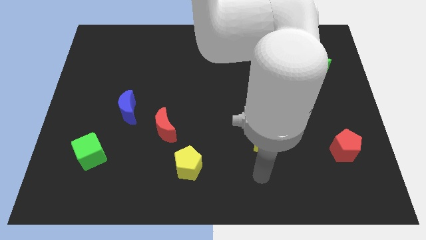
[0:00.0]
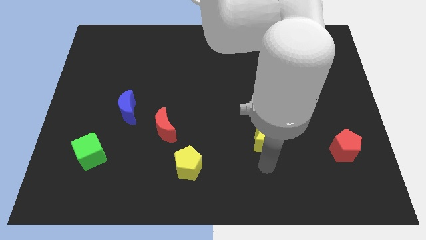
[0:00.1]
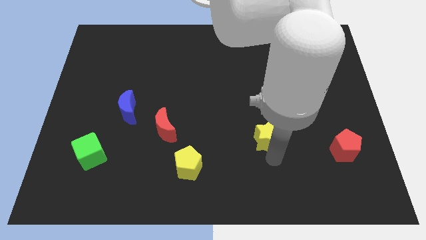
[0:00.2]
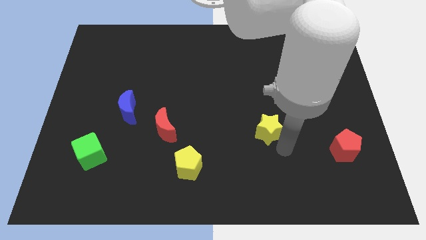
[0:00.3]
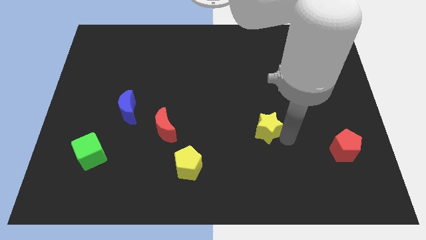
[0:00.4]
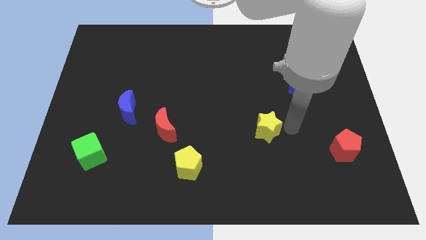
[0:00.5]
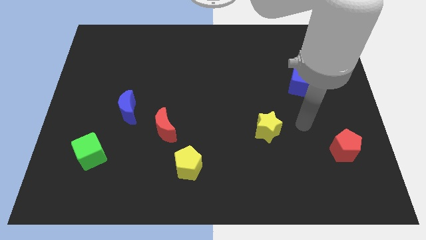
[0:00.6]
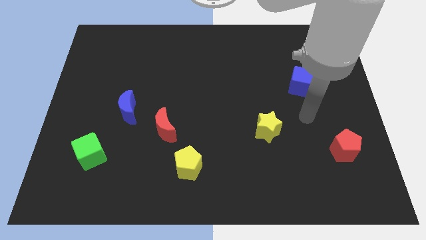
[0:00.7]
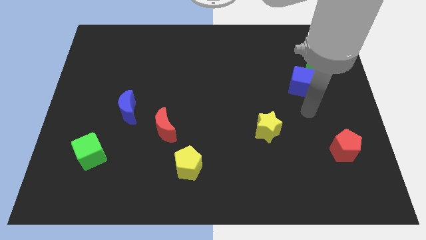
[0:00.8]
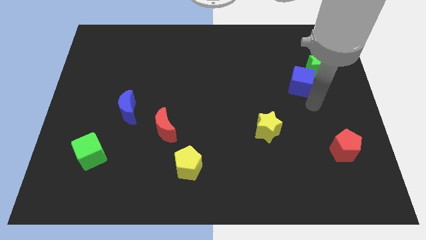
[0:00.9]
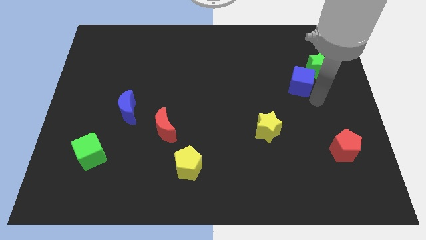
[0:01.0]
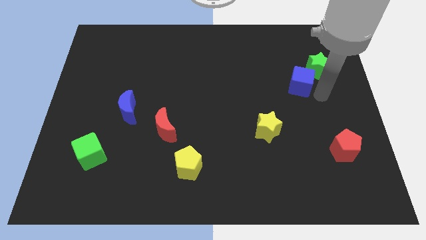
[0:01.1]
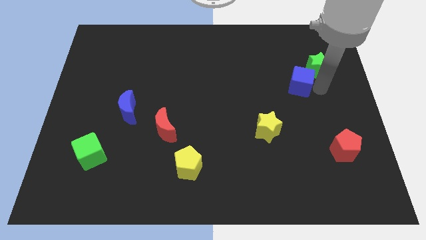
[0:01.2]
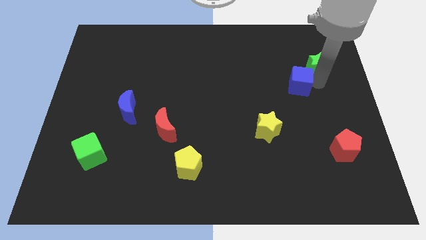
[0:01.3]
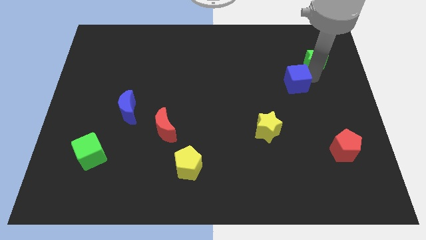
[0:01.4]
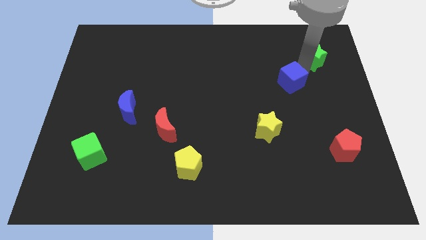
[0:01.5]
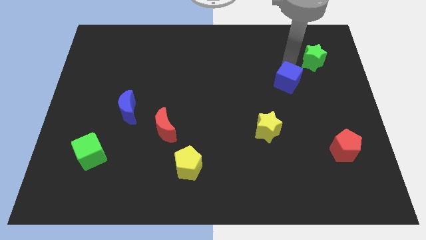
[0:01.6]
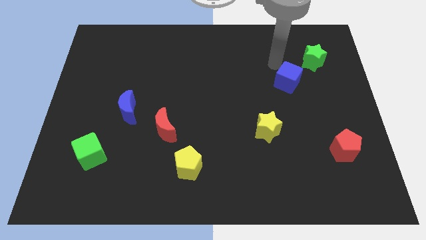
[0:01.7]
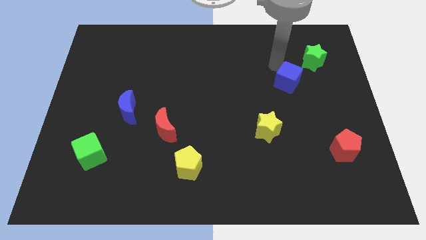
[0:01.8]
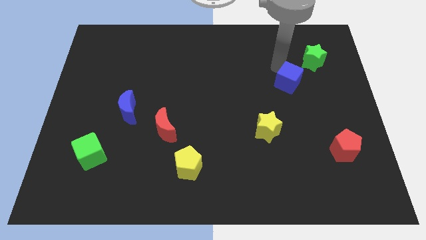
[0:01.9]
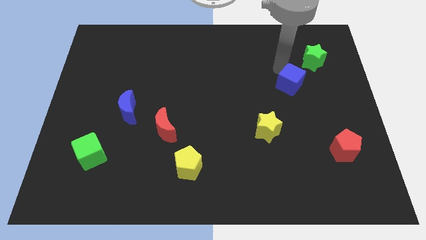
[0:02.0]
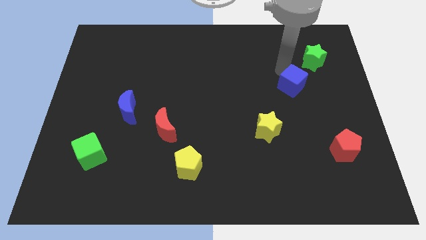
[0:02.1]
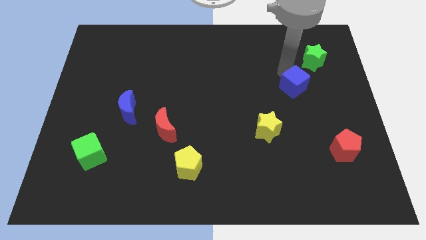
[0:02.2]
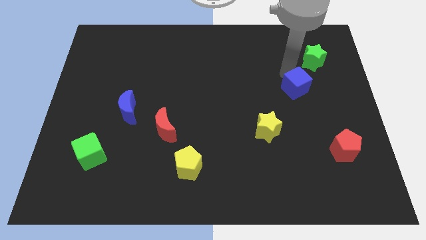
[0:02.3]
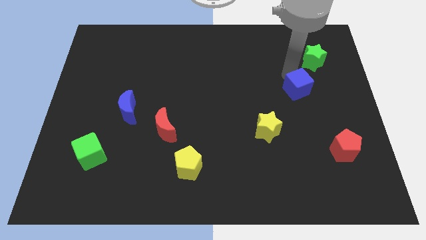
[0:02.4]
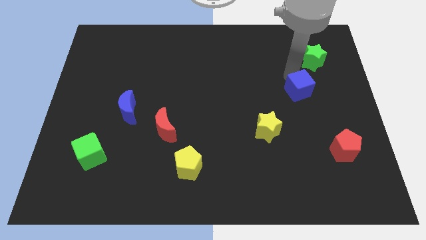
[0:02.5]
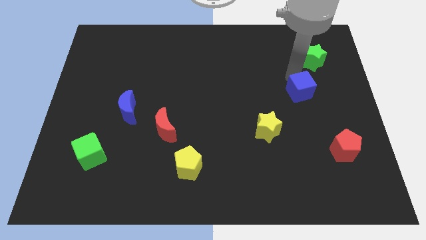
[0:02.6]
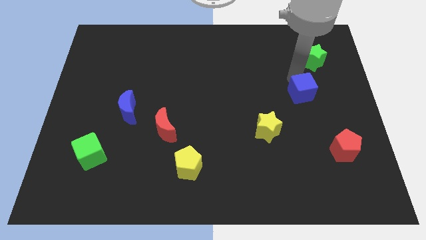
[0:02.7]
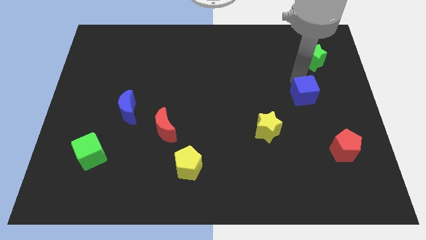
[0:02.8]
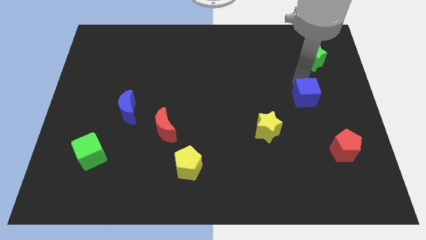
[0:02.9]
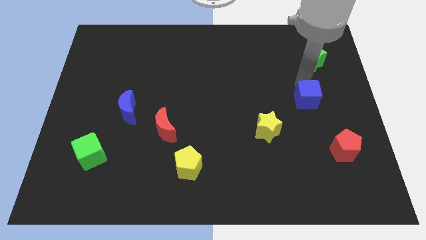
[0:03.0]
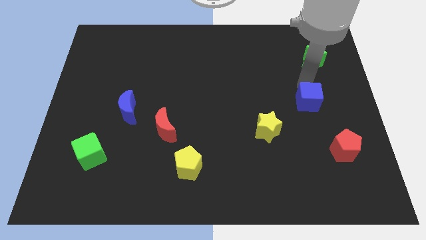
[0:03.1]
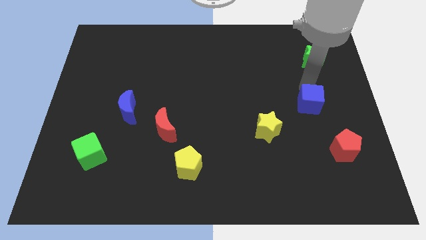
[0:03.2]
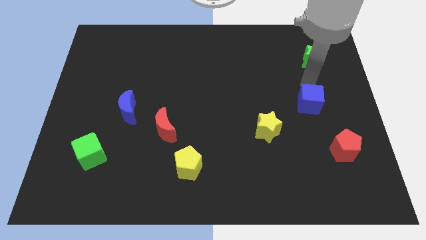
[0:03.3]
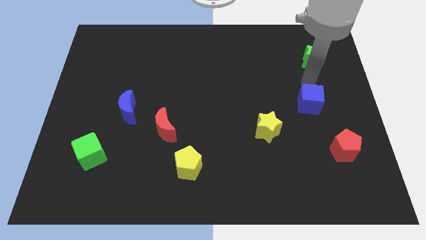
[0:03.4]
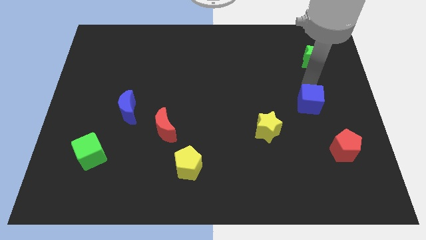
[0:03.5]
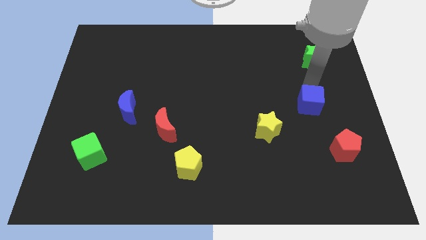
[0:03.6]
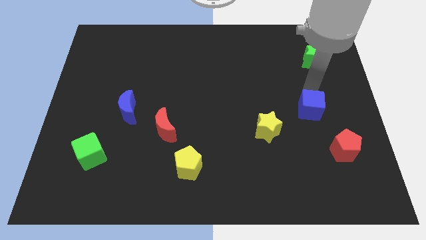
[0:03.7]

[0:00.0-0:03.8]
push the blue cube somewhat down

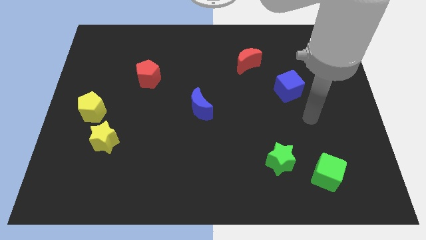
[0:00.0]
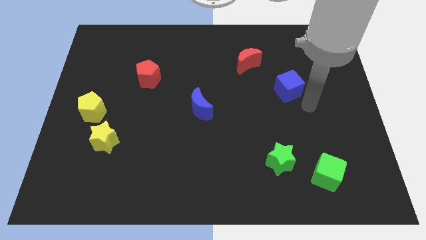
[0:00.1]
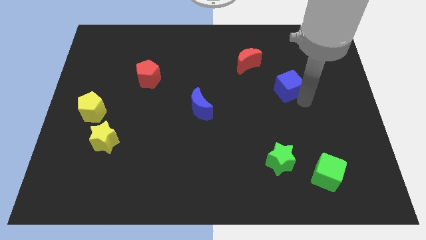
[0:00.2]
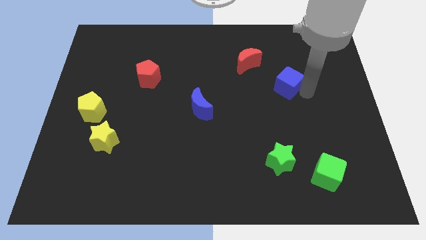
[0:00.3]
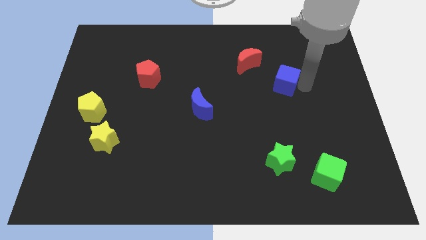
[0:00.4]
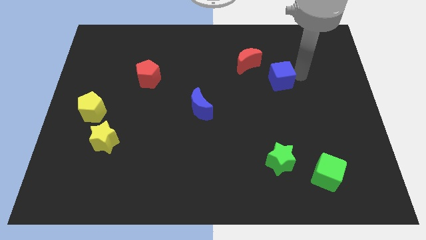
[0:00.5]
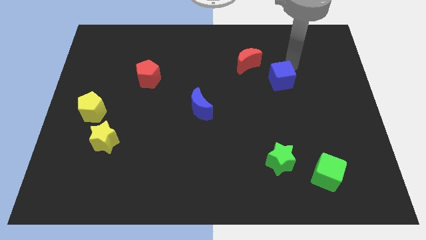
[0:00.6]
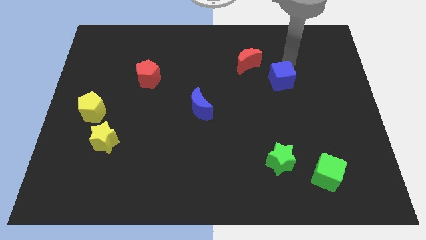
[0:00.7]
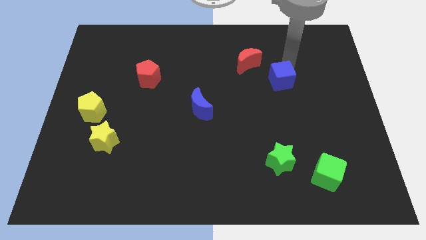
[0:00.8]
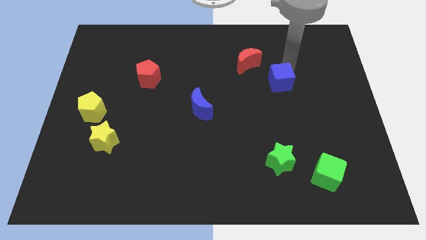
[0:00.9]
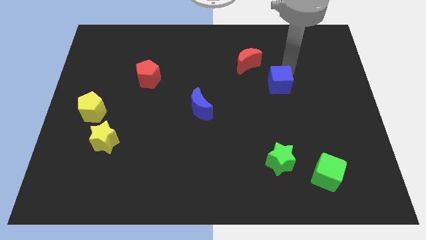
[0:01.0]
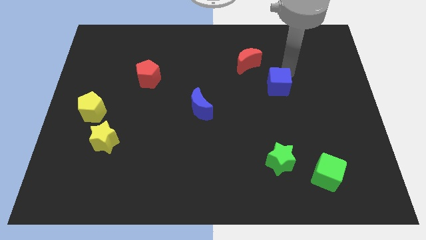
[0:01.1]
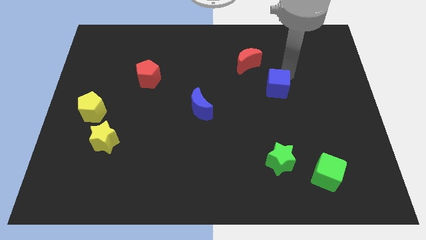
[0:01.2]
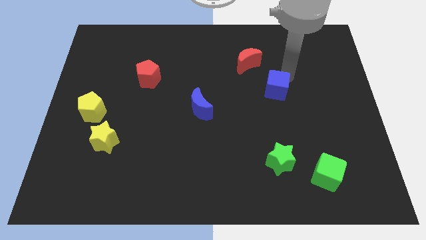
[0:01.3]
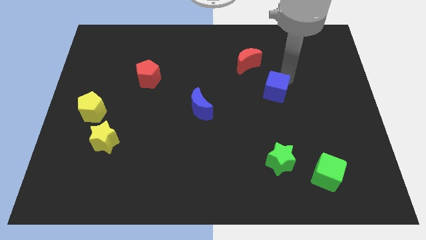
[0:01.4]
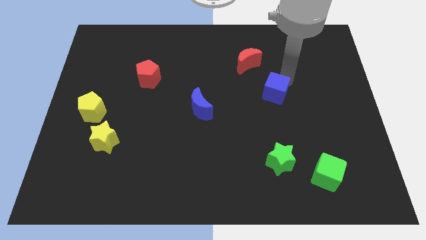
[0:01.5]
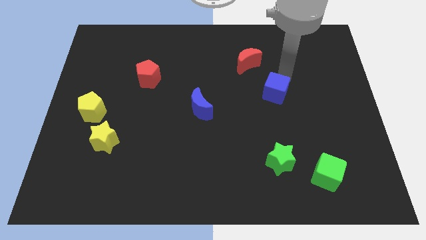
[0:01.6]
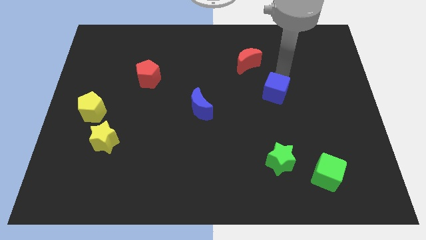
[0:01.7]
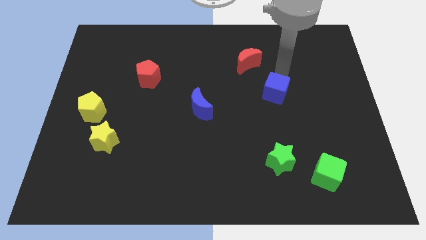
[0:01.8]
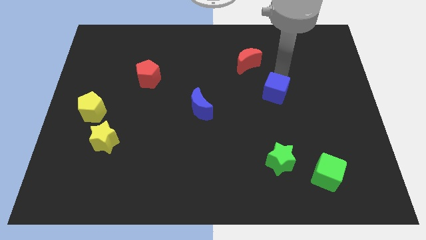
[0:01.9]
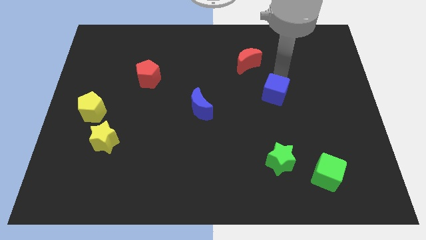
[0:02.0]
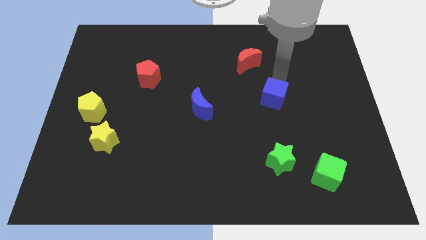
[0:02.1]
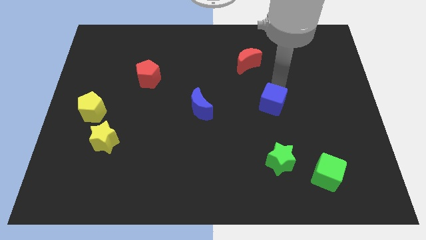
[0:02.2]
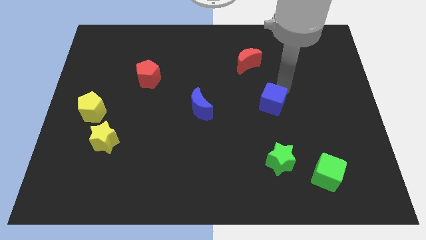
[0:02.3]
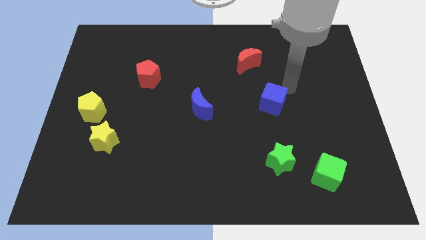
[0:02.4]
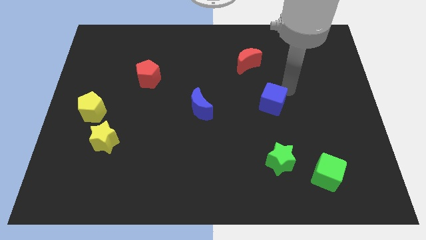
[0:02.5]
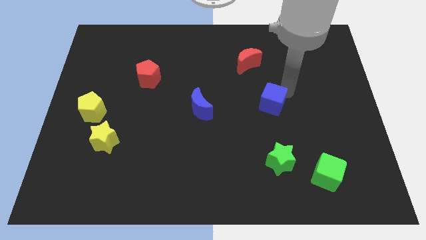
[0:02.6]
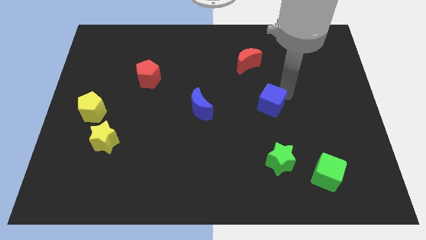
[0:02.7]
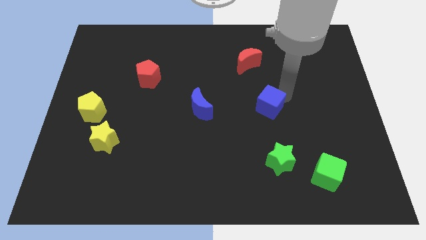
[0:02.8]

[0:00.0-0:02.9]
move the blue cube downwards and to the left diagonally somewhat

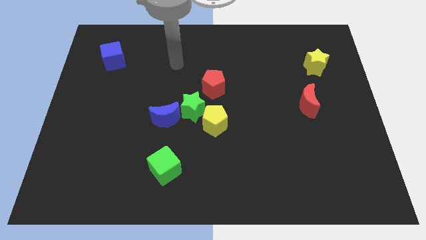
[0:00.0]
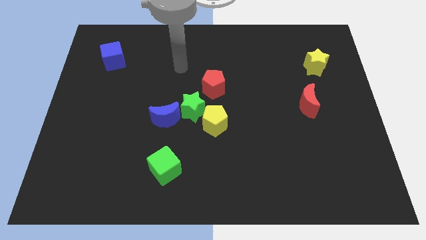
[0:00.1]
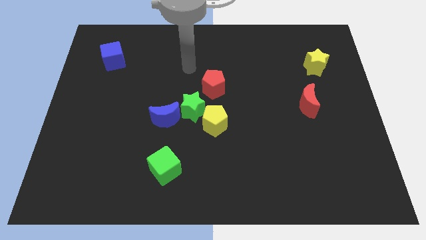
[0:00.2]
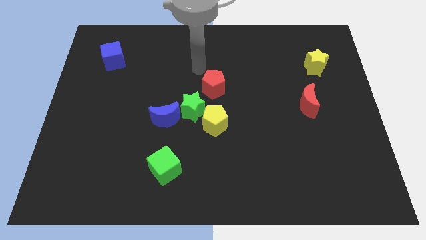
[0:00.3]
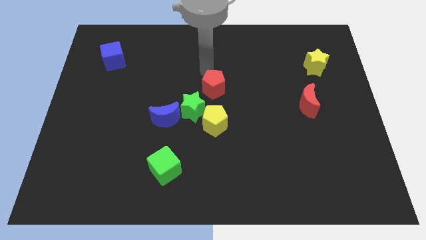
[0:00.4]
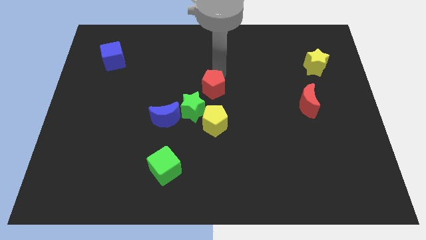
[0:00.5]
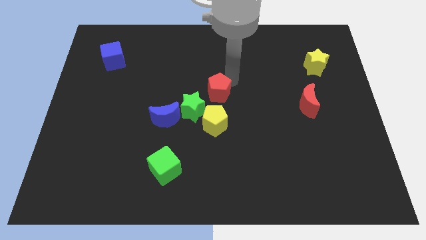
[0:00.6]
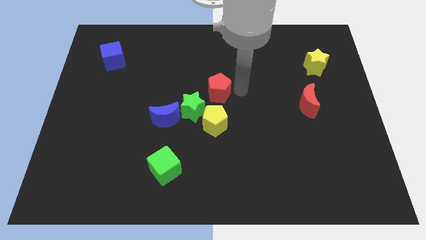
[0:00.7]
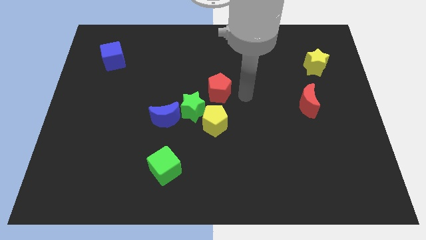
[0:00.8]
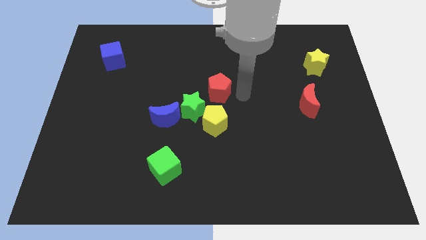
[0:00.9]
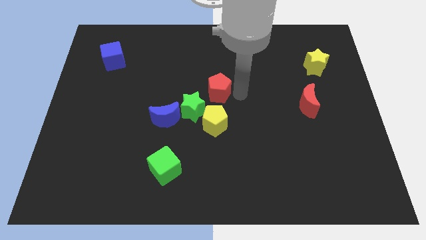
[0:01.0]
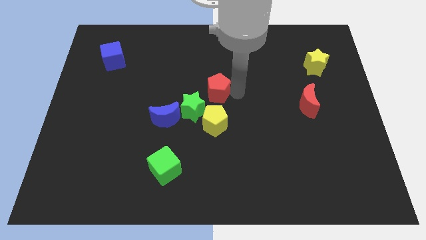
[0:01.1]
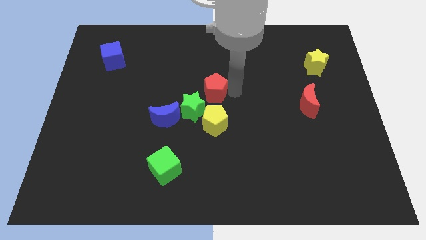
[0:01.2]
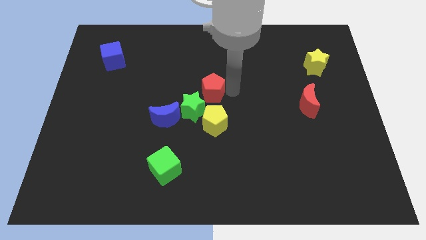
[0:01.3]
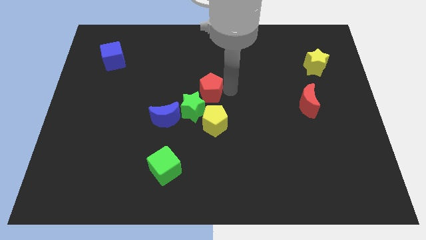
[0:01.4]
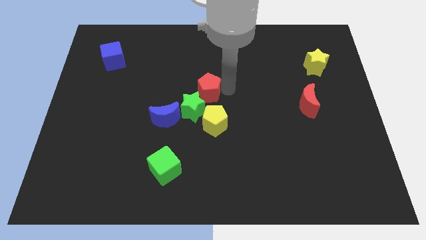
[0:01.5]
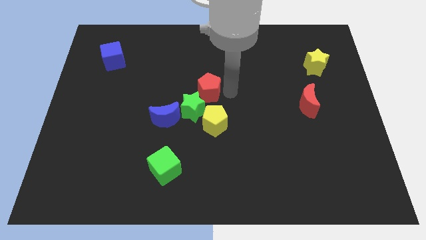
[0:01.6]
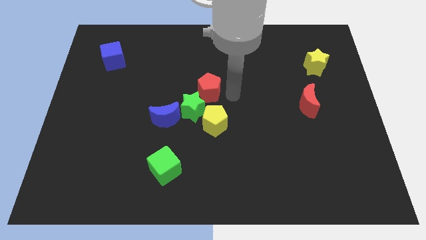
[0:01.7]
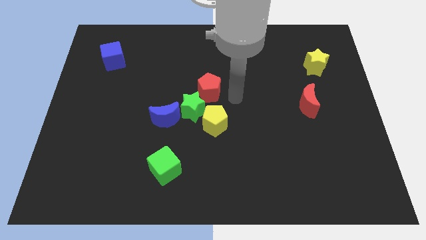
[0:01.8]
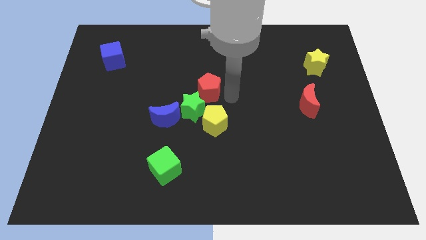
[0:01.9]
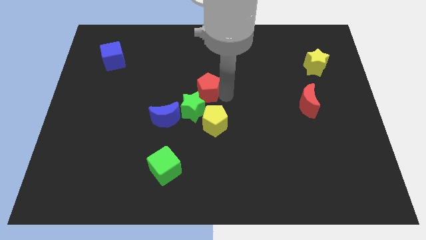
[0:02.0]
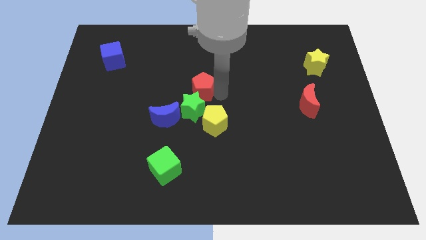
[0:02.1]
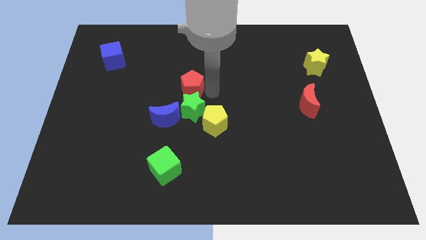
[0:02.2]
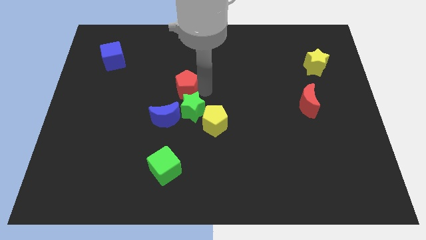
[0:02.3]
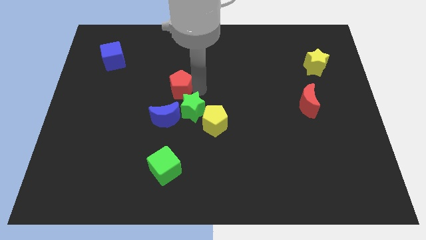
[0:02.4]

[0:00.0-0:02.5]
slide the red pentagon left a little bit
